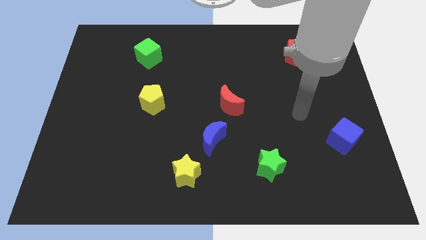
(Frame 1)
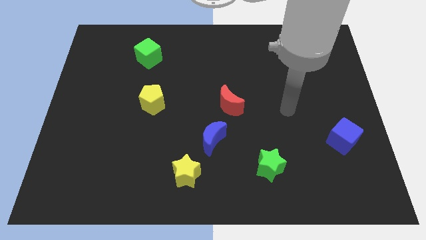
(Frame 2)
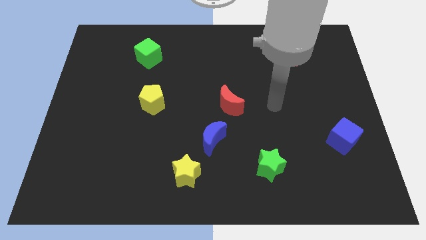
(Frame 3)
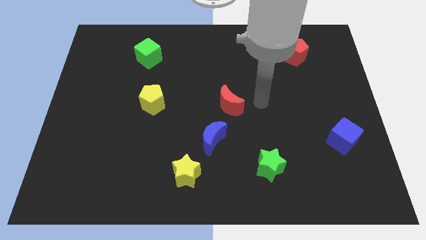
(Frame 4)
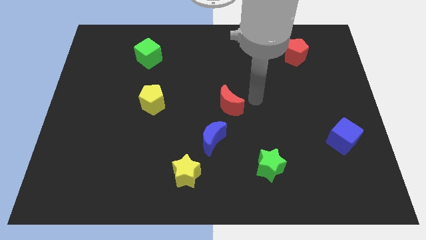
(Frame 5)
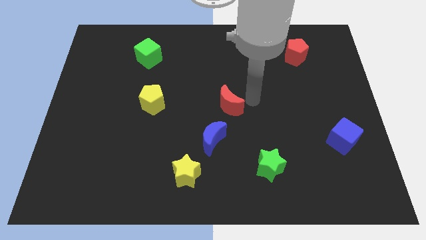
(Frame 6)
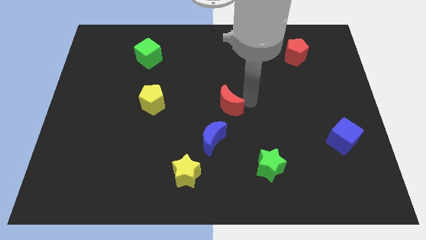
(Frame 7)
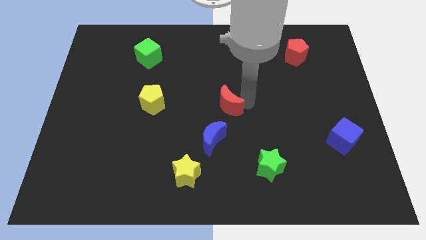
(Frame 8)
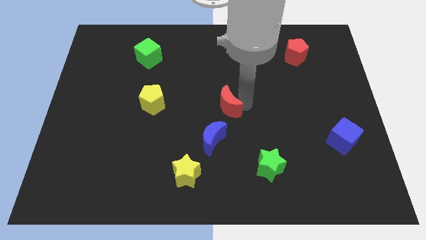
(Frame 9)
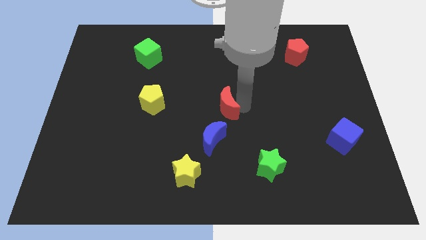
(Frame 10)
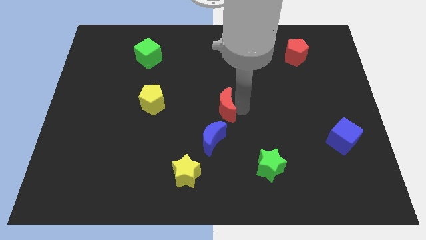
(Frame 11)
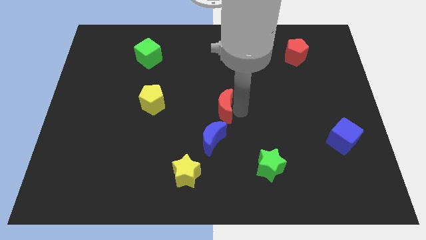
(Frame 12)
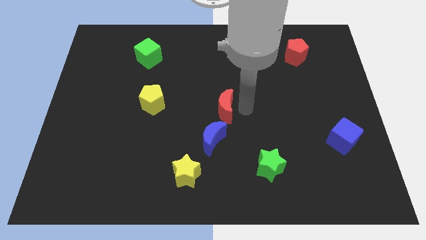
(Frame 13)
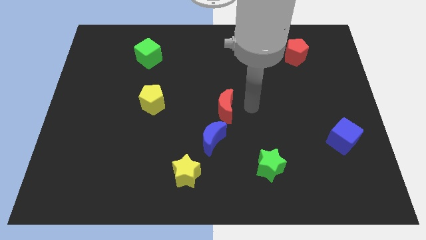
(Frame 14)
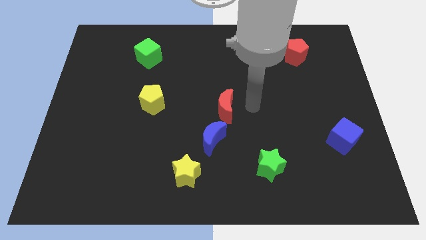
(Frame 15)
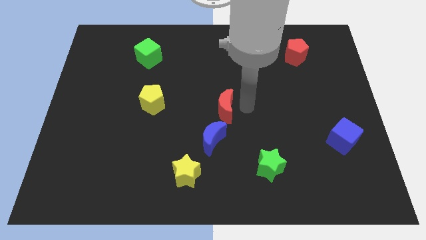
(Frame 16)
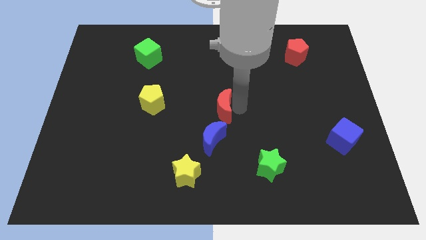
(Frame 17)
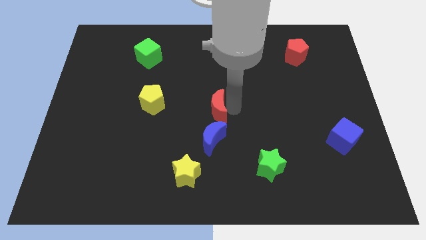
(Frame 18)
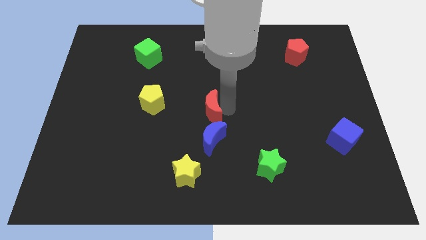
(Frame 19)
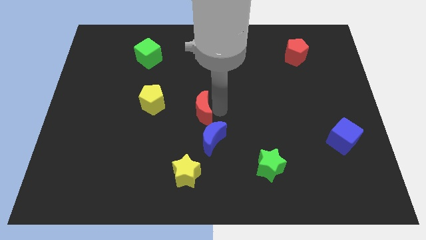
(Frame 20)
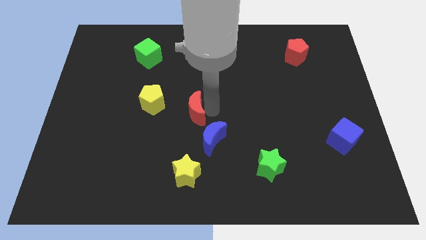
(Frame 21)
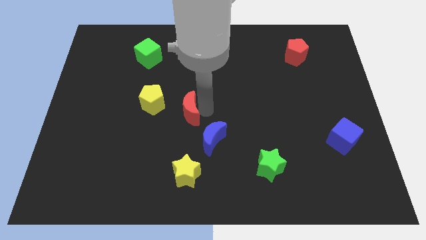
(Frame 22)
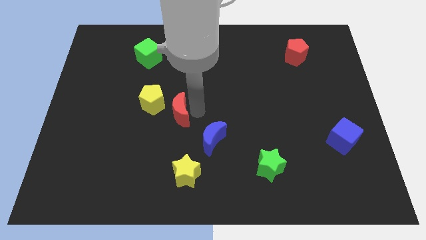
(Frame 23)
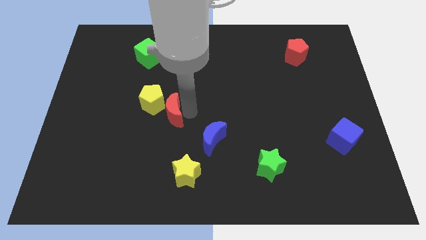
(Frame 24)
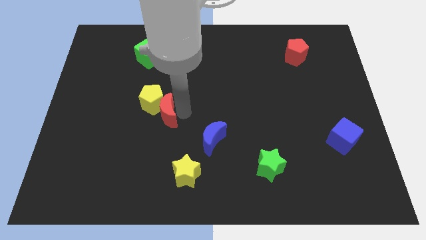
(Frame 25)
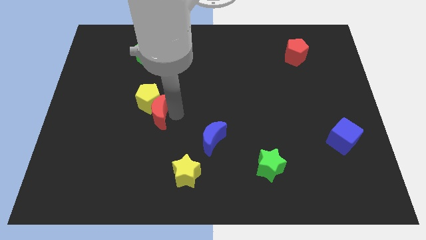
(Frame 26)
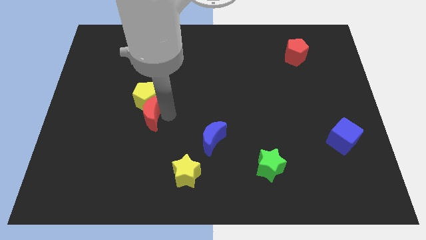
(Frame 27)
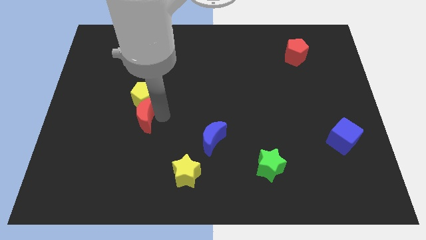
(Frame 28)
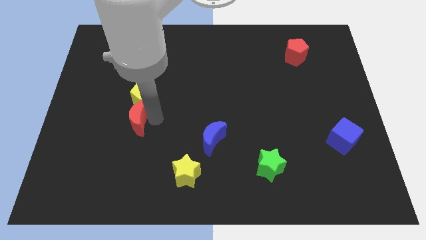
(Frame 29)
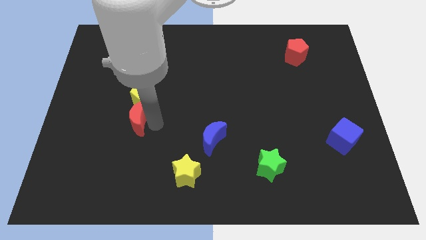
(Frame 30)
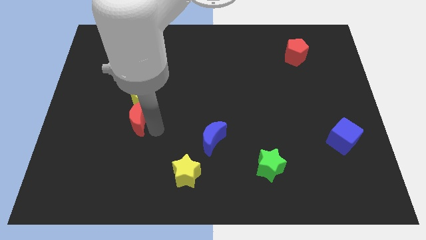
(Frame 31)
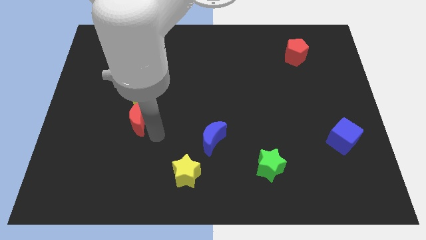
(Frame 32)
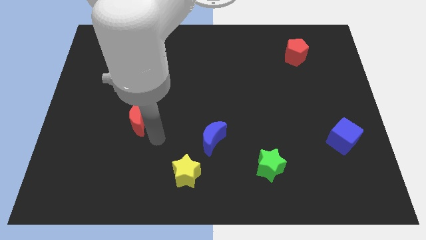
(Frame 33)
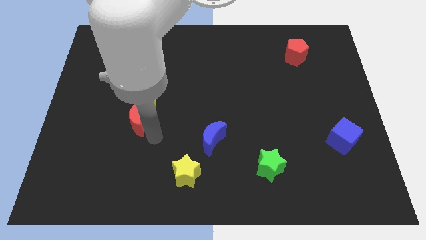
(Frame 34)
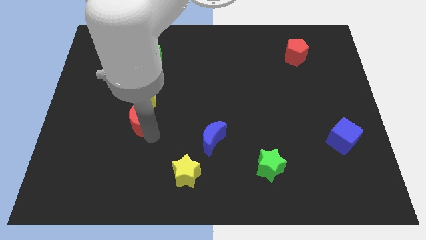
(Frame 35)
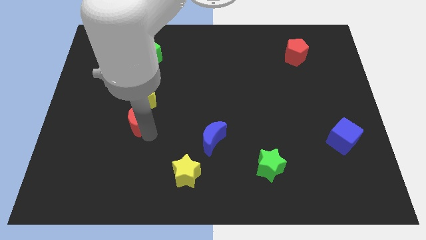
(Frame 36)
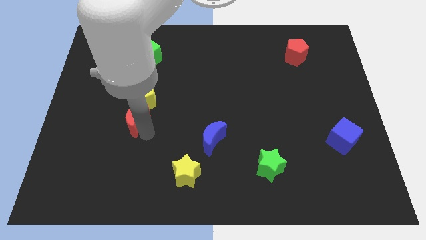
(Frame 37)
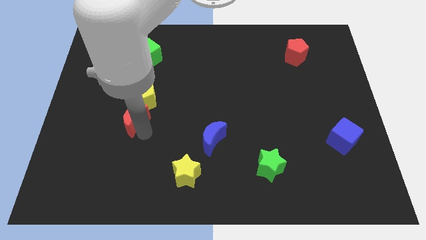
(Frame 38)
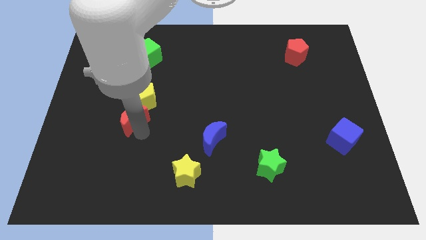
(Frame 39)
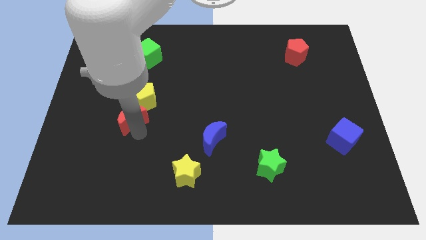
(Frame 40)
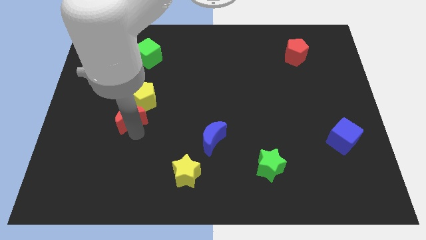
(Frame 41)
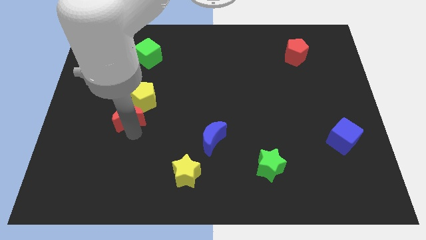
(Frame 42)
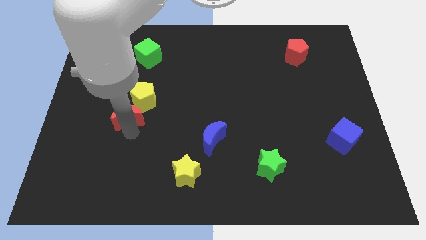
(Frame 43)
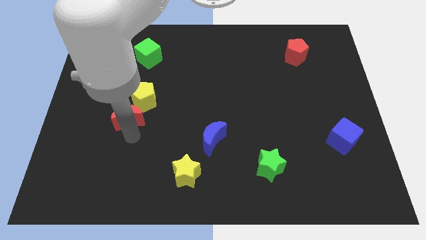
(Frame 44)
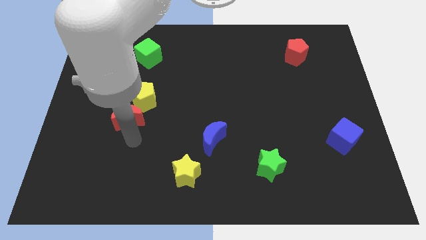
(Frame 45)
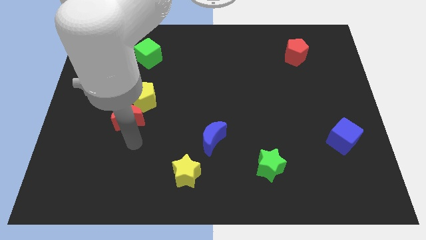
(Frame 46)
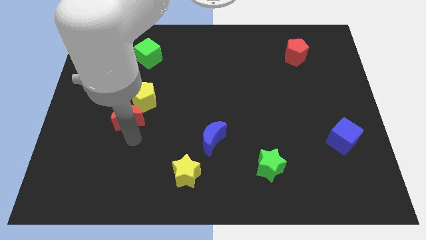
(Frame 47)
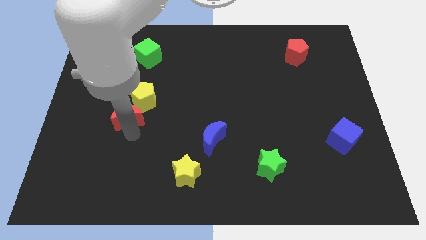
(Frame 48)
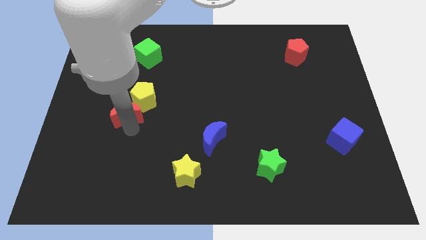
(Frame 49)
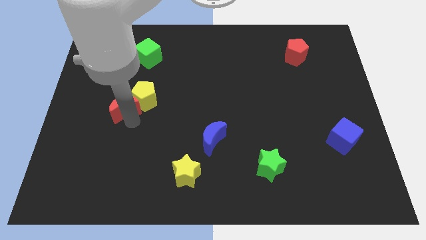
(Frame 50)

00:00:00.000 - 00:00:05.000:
move the red moon just left of the yellow pentagon

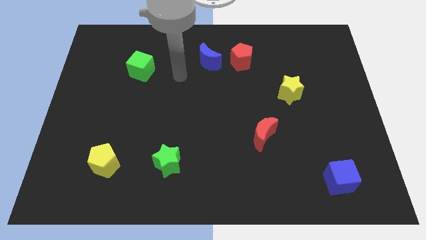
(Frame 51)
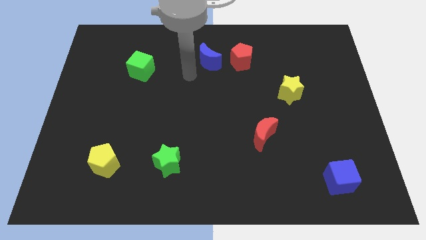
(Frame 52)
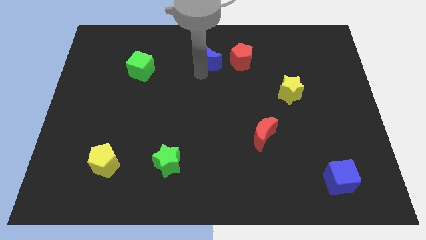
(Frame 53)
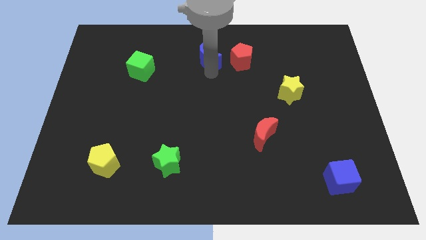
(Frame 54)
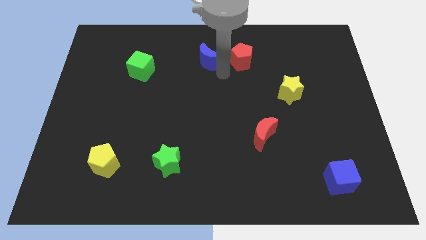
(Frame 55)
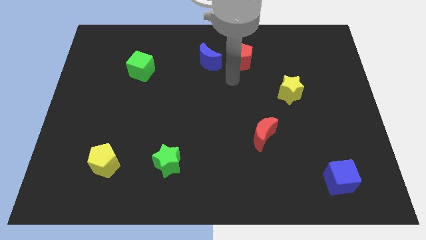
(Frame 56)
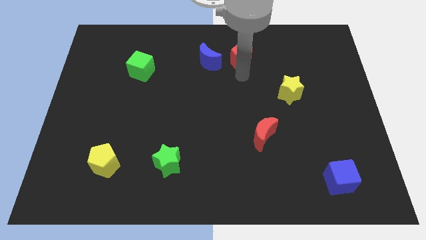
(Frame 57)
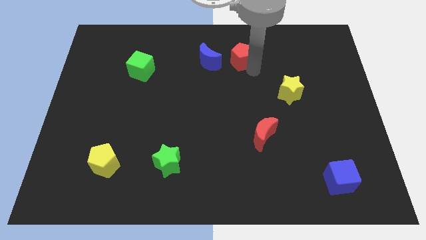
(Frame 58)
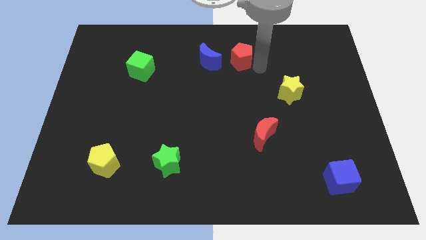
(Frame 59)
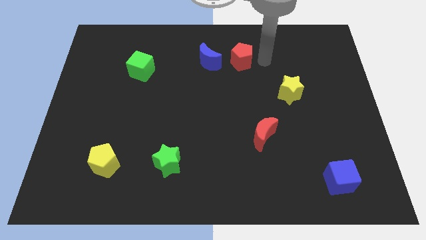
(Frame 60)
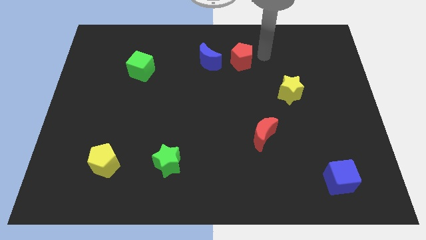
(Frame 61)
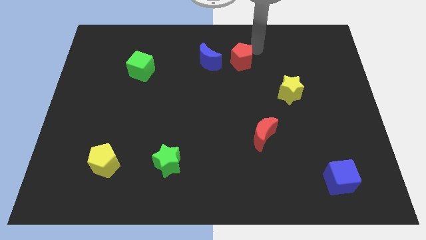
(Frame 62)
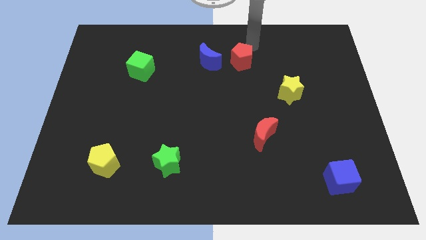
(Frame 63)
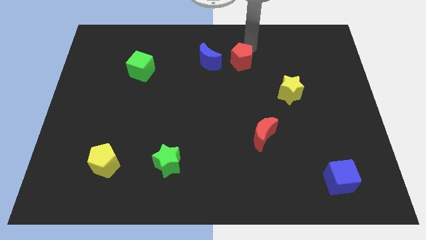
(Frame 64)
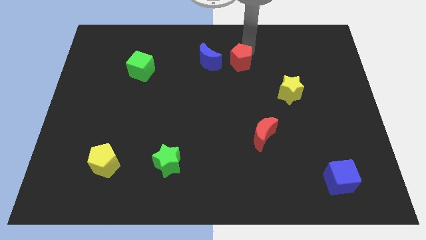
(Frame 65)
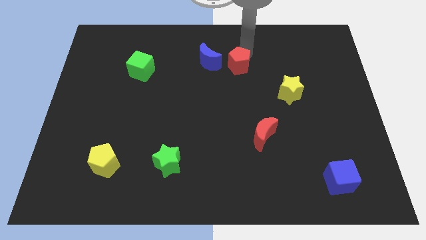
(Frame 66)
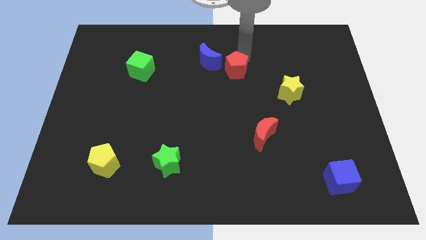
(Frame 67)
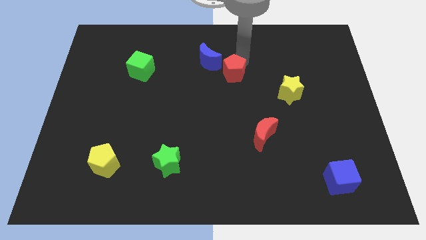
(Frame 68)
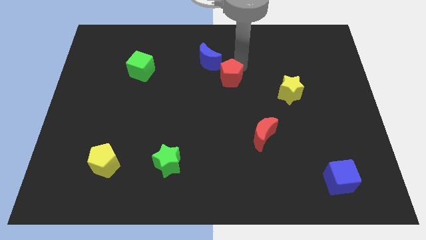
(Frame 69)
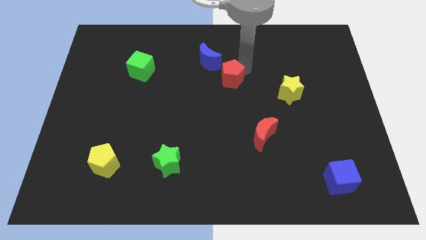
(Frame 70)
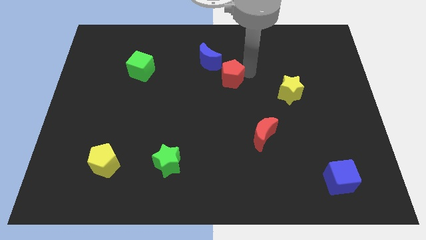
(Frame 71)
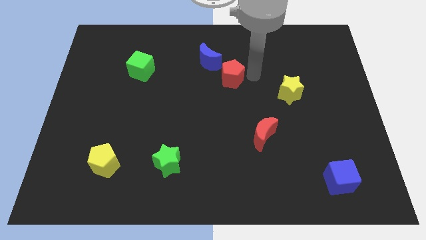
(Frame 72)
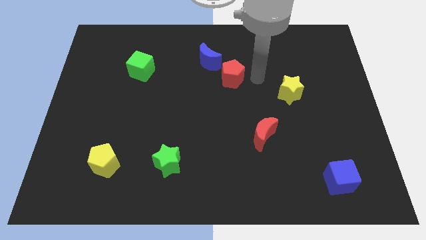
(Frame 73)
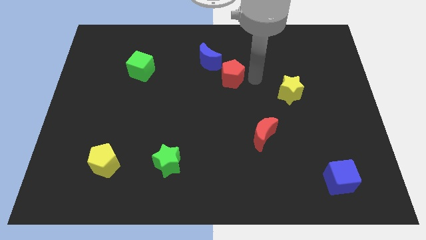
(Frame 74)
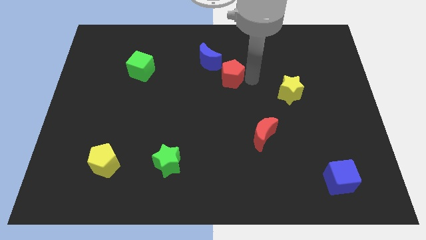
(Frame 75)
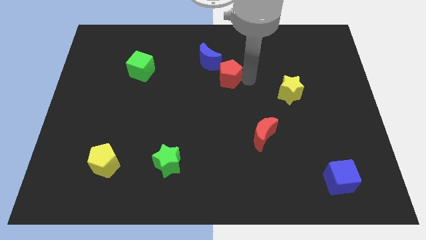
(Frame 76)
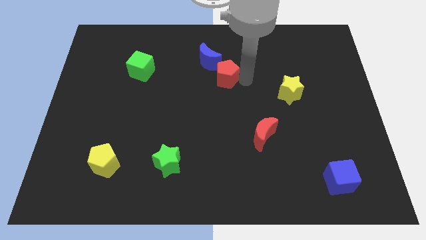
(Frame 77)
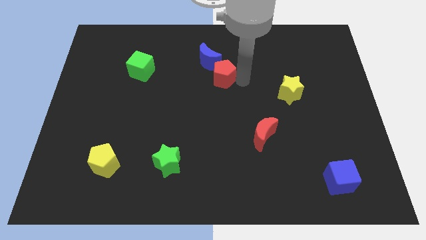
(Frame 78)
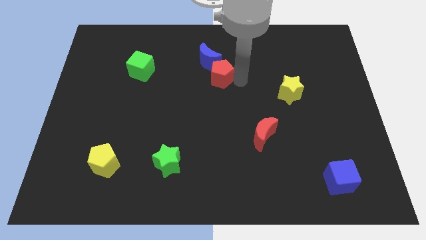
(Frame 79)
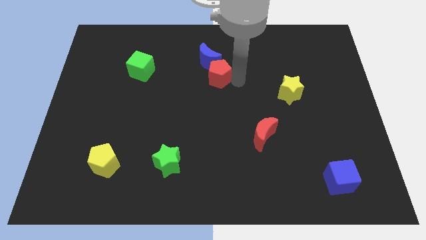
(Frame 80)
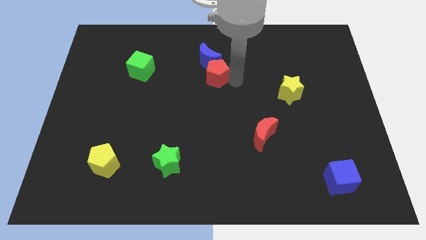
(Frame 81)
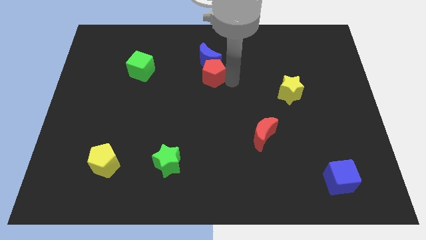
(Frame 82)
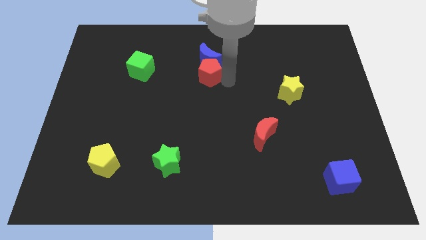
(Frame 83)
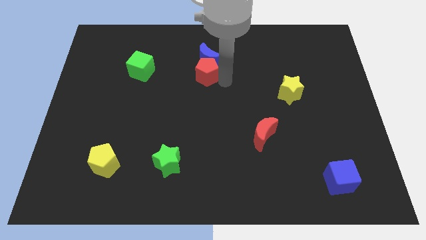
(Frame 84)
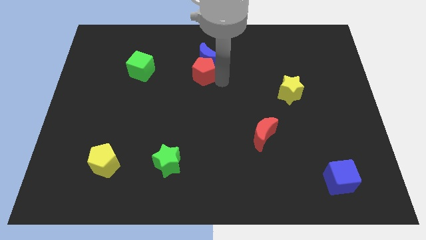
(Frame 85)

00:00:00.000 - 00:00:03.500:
push the red pentagon right of the green cube
